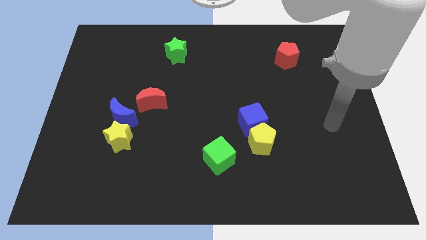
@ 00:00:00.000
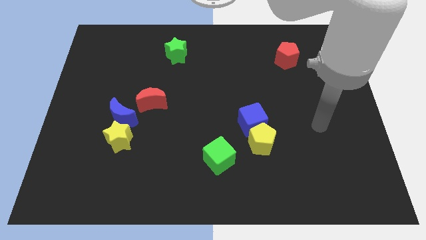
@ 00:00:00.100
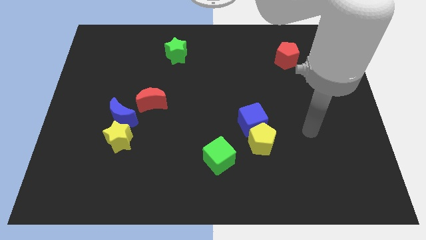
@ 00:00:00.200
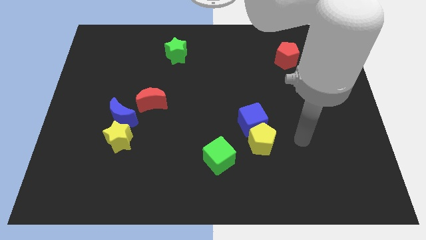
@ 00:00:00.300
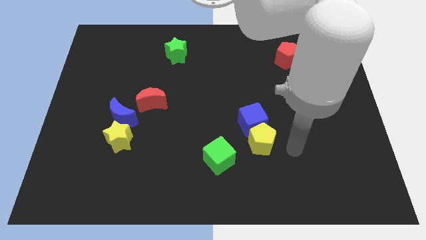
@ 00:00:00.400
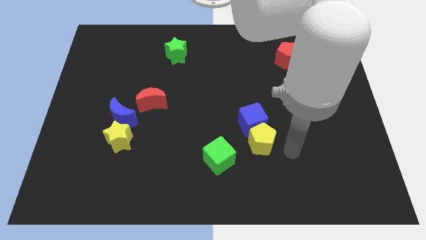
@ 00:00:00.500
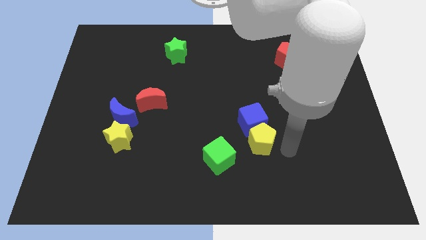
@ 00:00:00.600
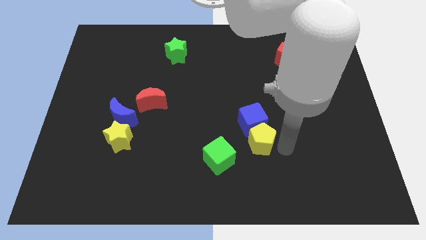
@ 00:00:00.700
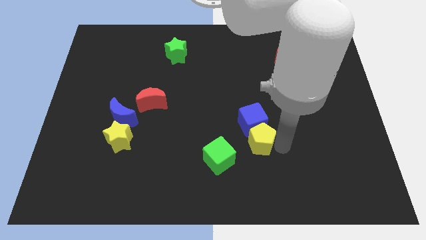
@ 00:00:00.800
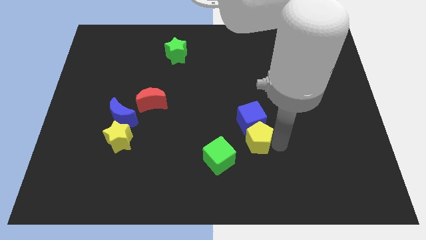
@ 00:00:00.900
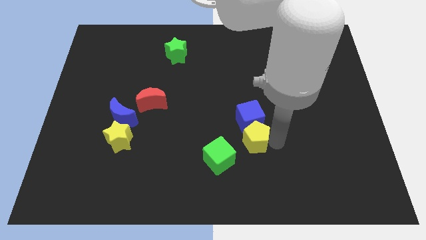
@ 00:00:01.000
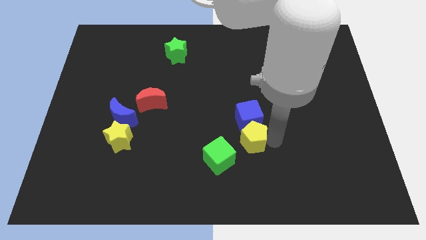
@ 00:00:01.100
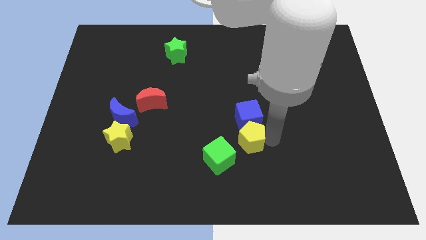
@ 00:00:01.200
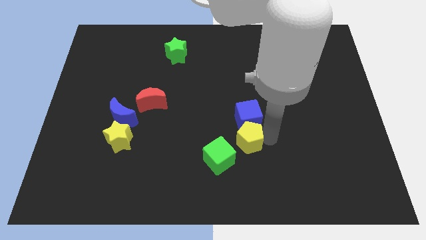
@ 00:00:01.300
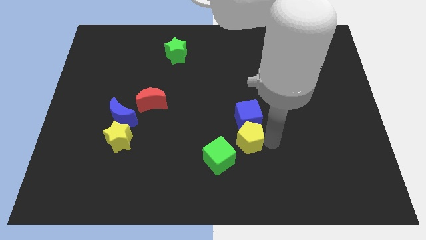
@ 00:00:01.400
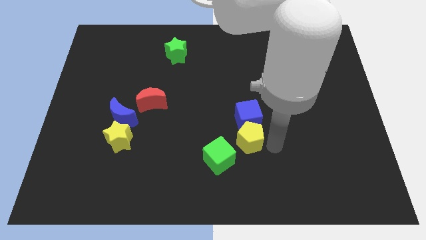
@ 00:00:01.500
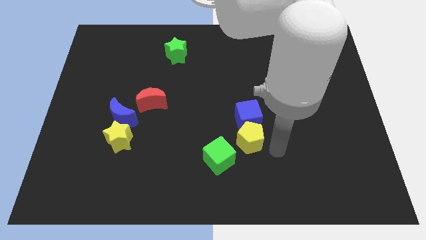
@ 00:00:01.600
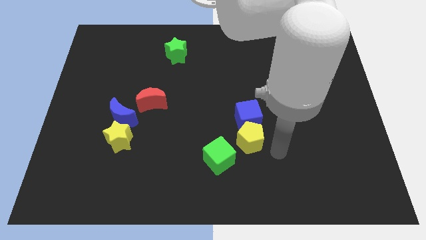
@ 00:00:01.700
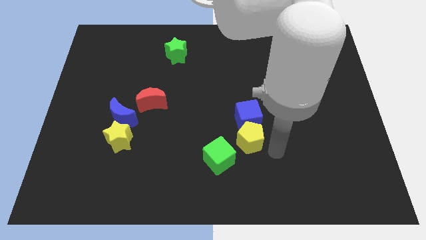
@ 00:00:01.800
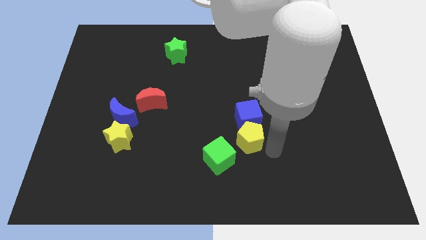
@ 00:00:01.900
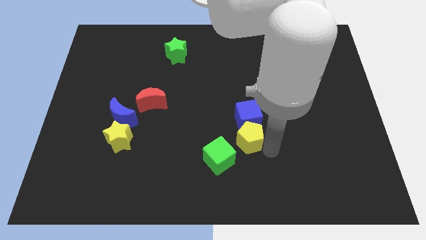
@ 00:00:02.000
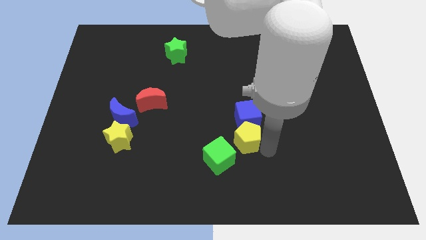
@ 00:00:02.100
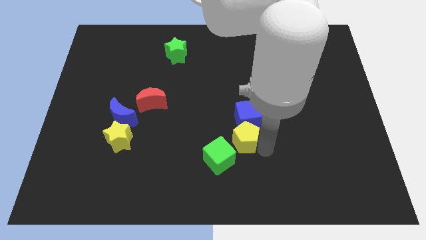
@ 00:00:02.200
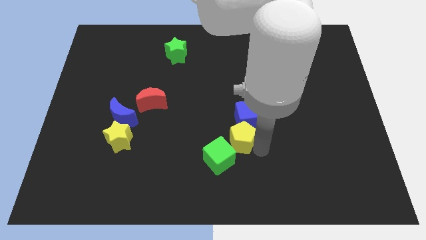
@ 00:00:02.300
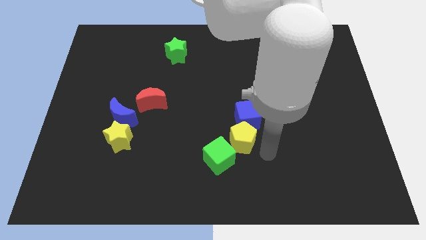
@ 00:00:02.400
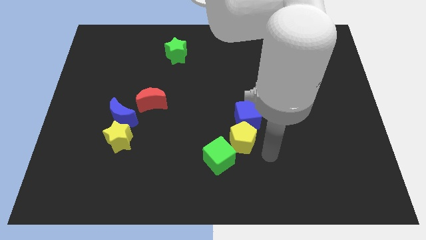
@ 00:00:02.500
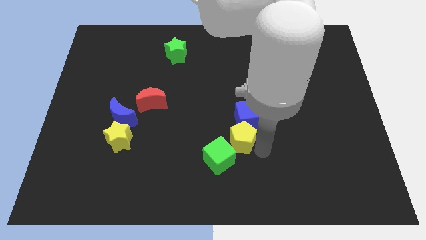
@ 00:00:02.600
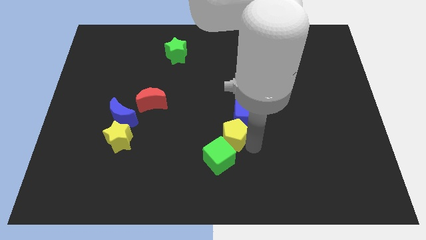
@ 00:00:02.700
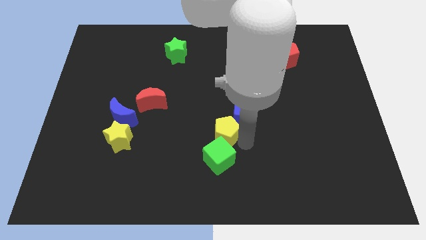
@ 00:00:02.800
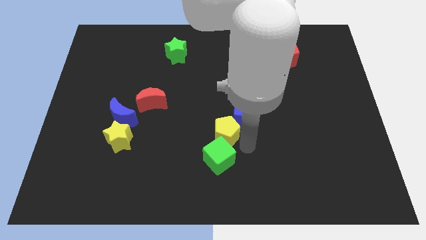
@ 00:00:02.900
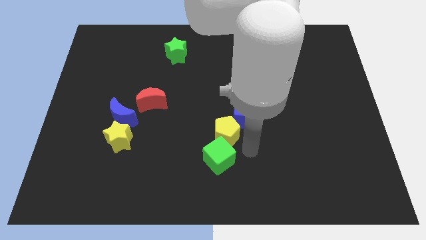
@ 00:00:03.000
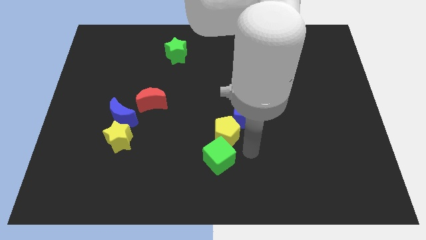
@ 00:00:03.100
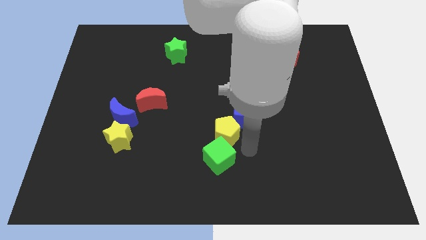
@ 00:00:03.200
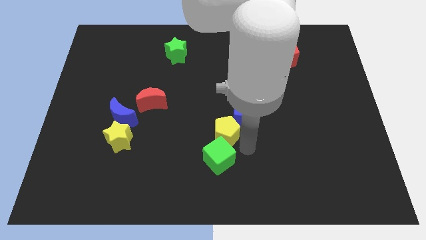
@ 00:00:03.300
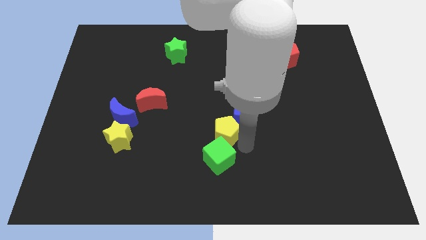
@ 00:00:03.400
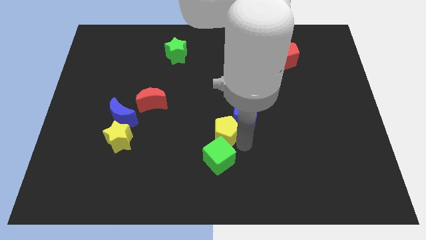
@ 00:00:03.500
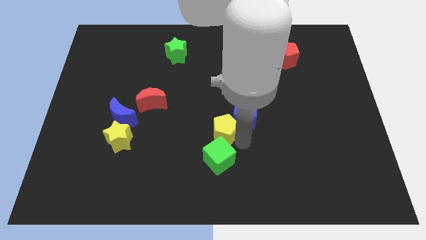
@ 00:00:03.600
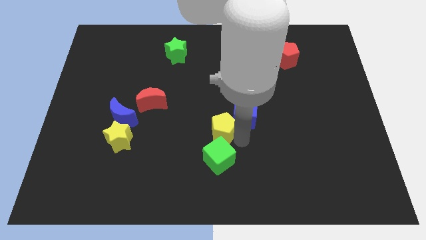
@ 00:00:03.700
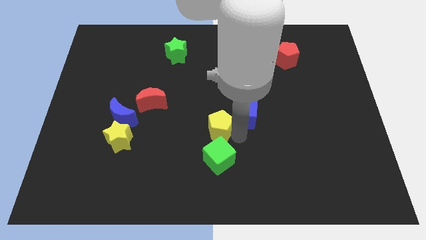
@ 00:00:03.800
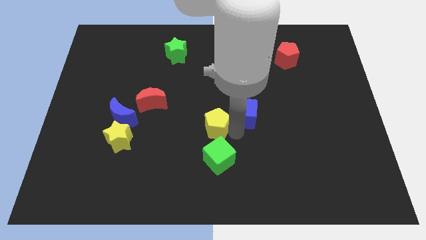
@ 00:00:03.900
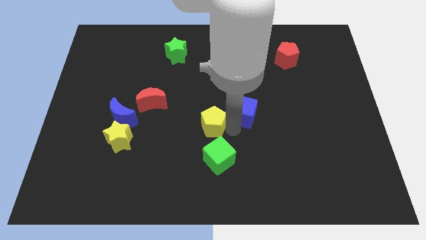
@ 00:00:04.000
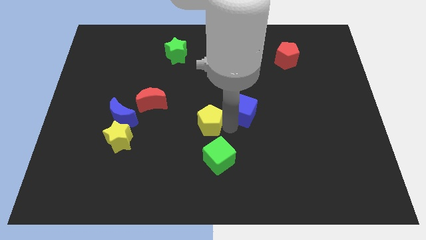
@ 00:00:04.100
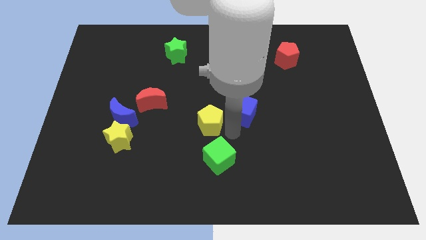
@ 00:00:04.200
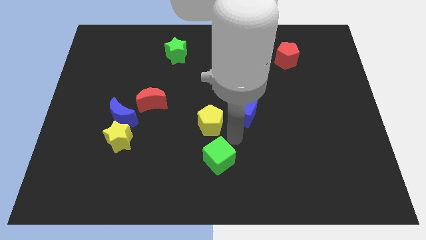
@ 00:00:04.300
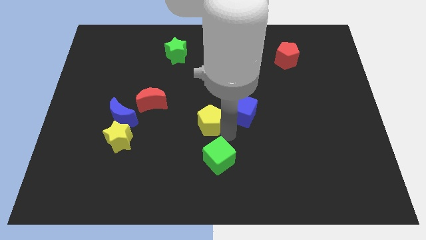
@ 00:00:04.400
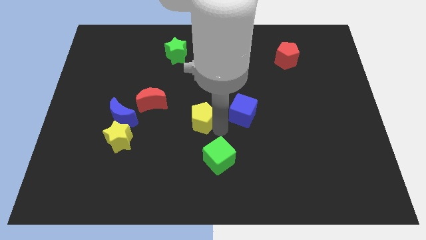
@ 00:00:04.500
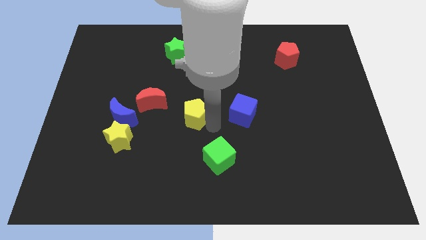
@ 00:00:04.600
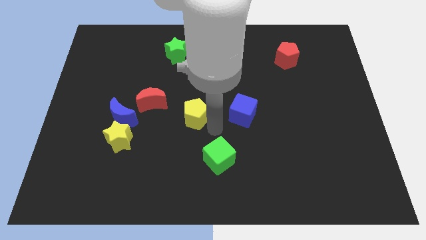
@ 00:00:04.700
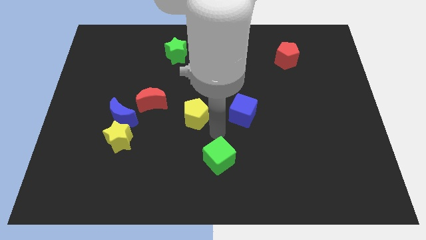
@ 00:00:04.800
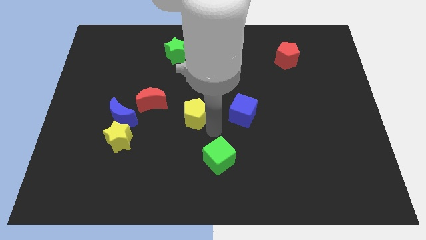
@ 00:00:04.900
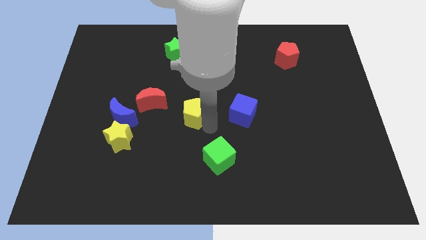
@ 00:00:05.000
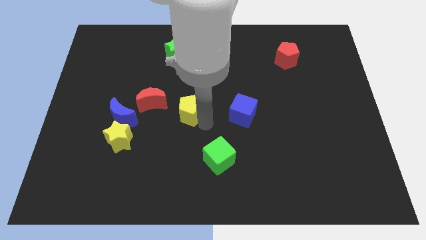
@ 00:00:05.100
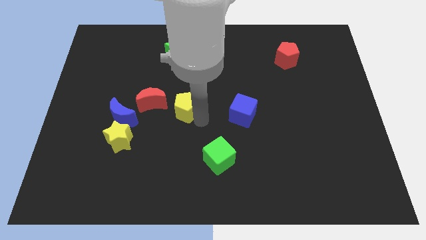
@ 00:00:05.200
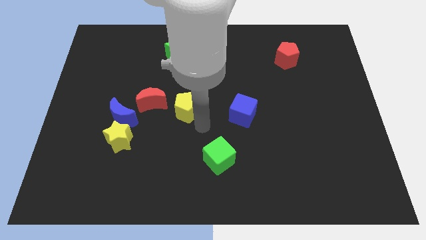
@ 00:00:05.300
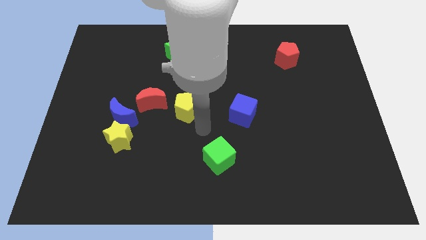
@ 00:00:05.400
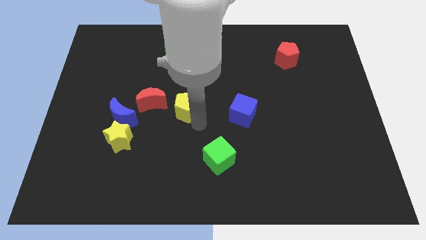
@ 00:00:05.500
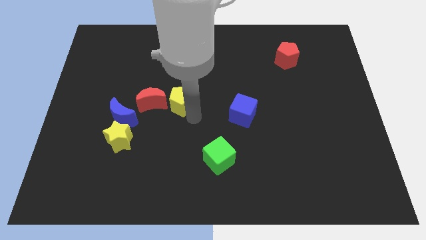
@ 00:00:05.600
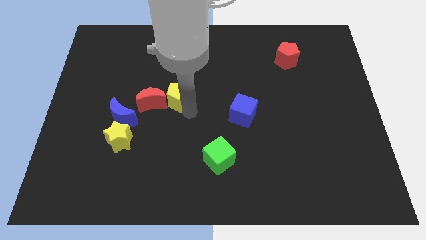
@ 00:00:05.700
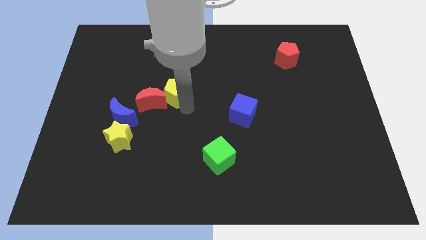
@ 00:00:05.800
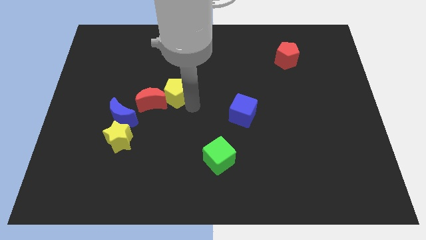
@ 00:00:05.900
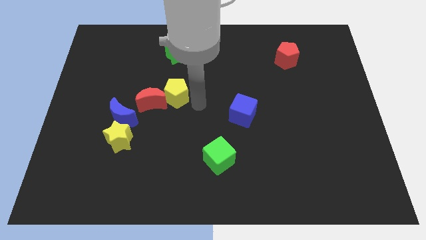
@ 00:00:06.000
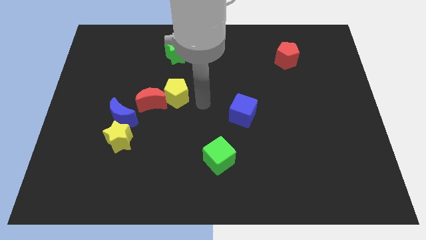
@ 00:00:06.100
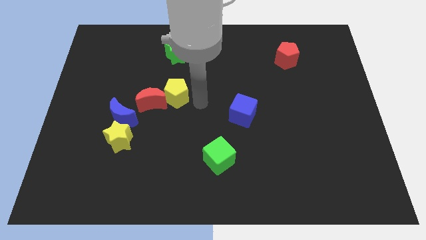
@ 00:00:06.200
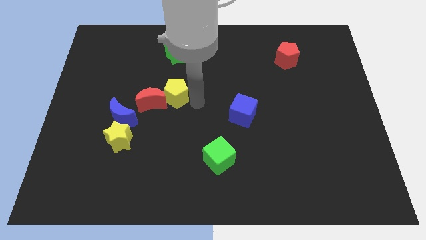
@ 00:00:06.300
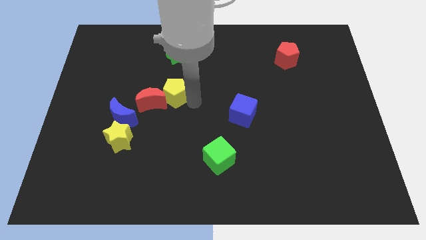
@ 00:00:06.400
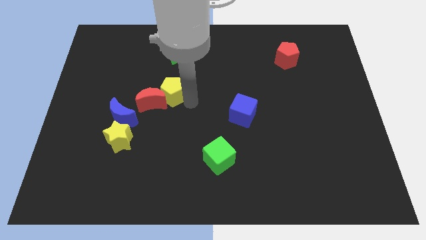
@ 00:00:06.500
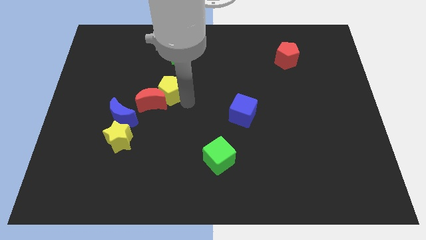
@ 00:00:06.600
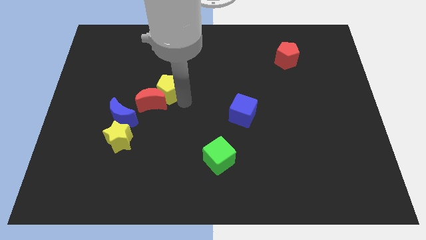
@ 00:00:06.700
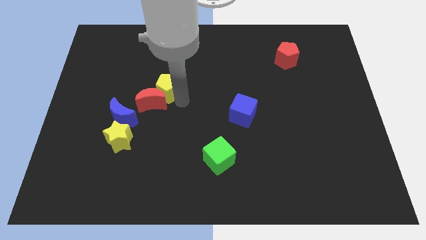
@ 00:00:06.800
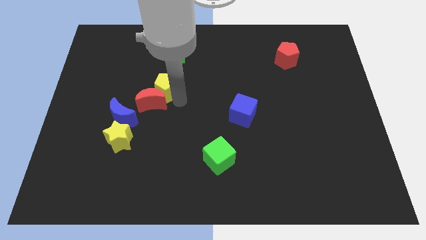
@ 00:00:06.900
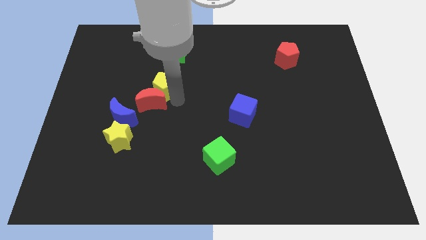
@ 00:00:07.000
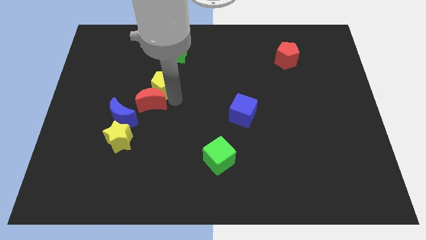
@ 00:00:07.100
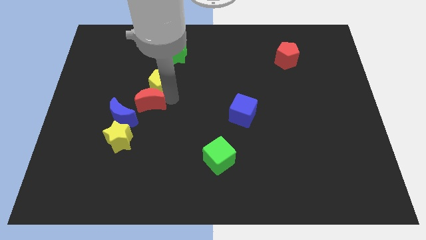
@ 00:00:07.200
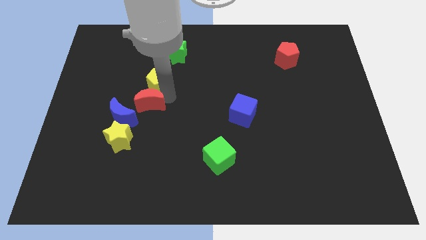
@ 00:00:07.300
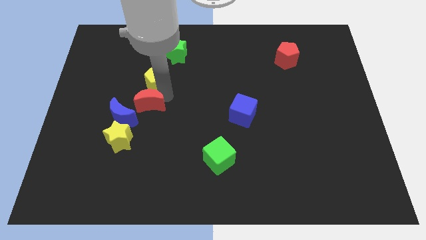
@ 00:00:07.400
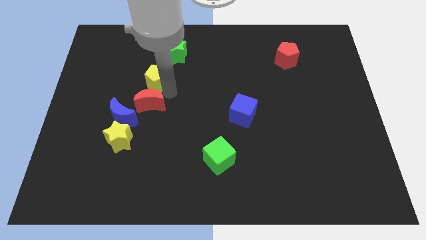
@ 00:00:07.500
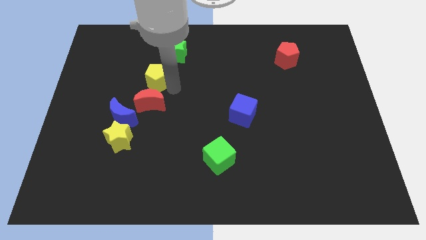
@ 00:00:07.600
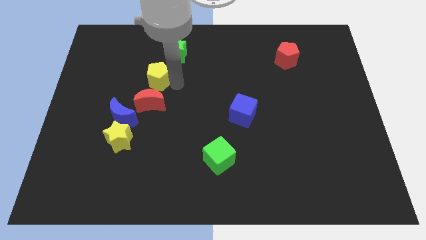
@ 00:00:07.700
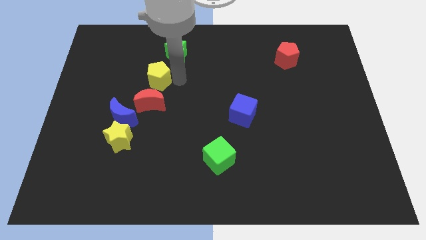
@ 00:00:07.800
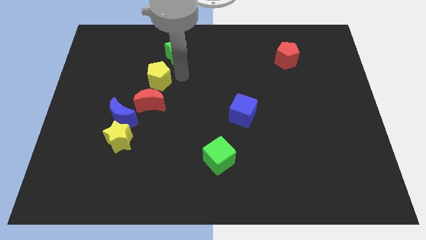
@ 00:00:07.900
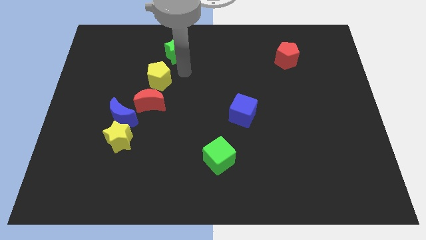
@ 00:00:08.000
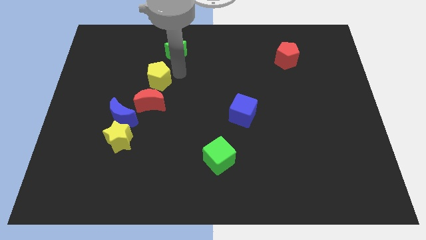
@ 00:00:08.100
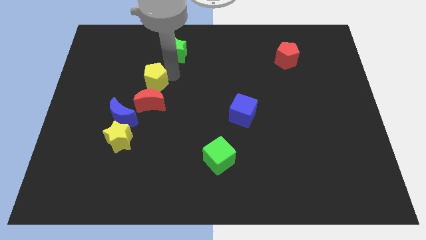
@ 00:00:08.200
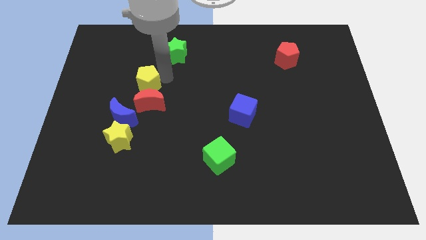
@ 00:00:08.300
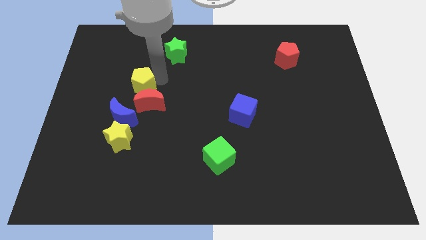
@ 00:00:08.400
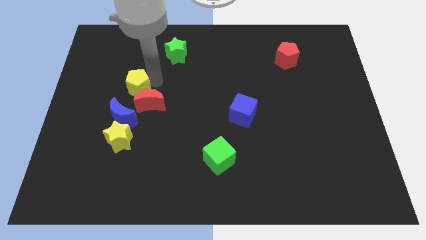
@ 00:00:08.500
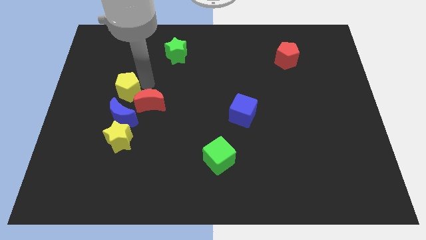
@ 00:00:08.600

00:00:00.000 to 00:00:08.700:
put the yellow pentagon just left of the red moon
